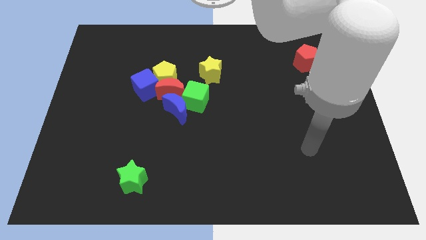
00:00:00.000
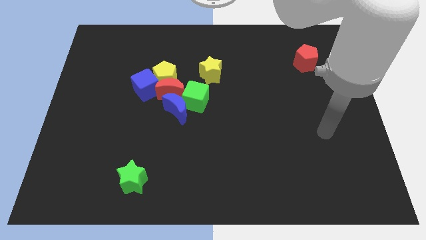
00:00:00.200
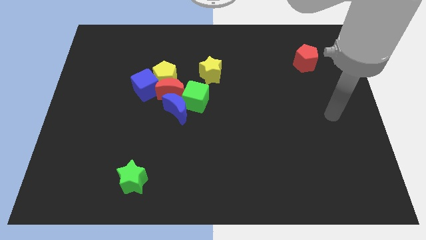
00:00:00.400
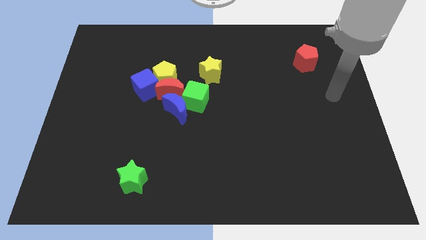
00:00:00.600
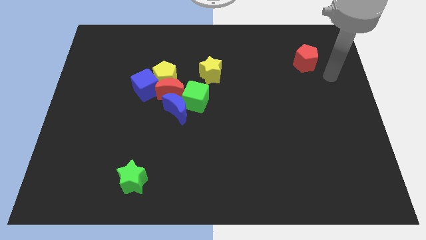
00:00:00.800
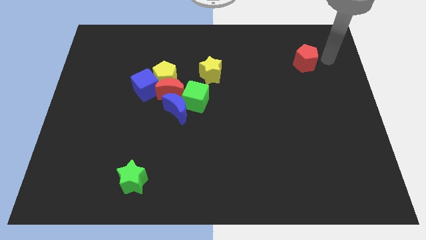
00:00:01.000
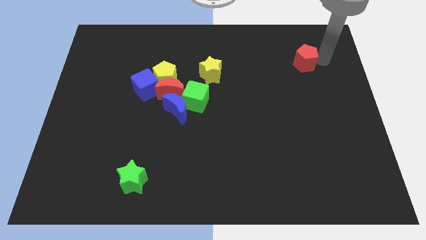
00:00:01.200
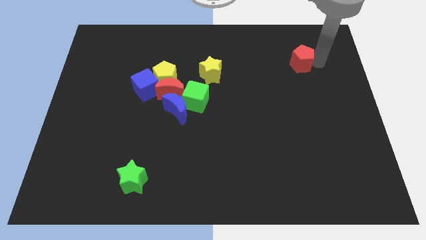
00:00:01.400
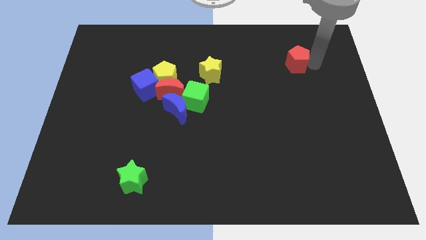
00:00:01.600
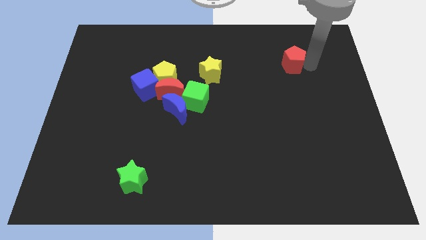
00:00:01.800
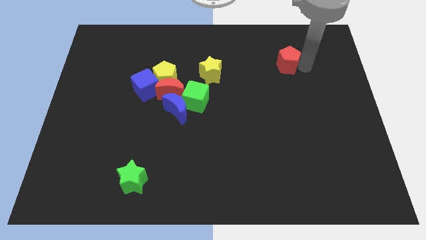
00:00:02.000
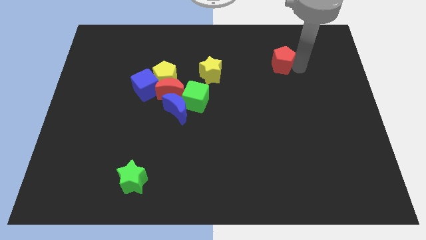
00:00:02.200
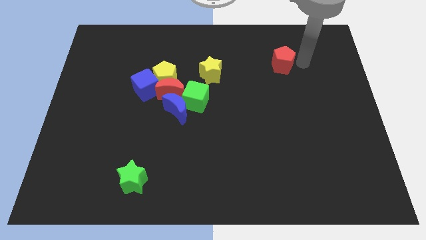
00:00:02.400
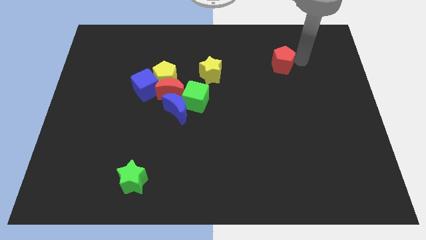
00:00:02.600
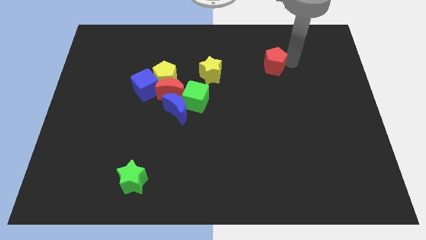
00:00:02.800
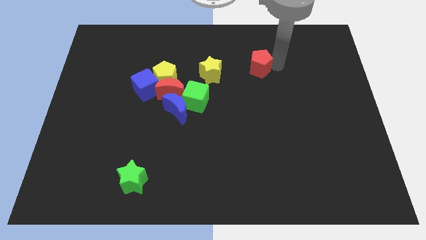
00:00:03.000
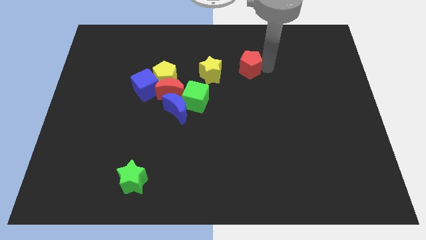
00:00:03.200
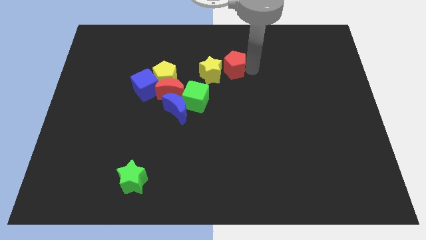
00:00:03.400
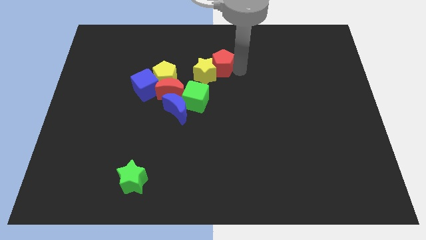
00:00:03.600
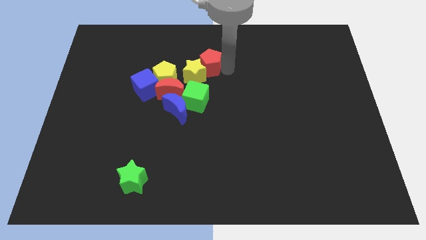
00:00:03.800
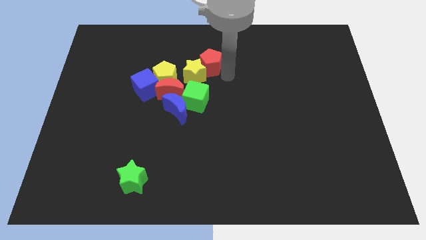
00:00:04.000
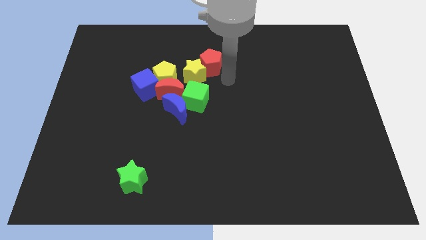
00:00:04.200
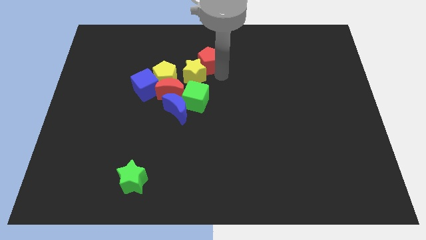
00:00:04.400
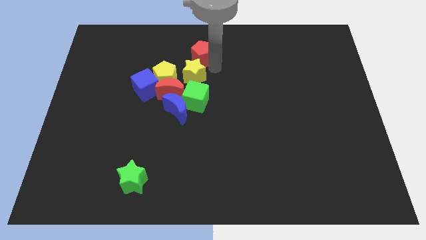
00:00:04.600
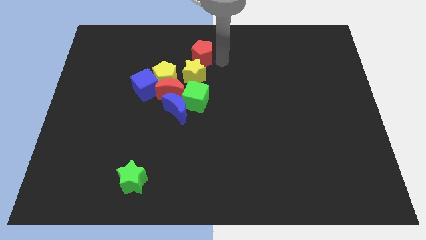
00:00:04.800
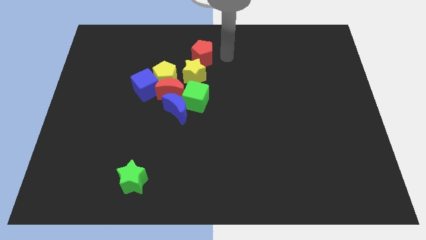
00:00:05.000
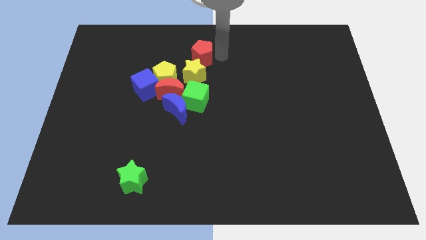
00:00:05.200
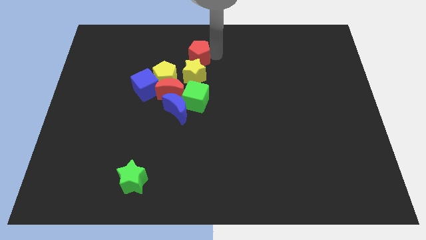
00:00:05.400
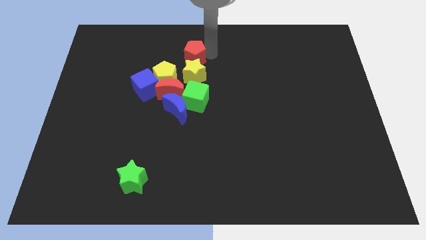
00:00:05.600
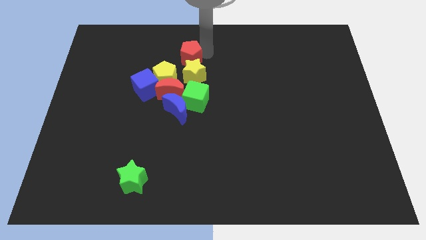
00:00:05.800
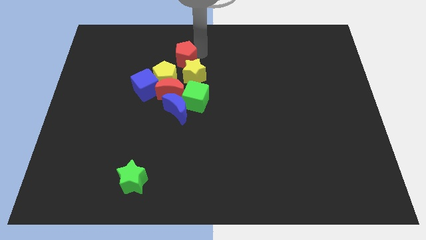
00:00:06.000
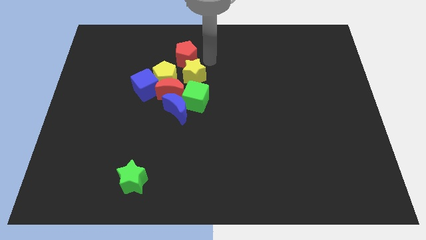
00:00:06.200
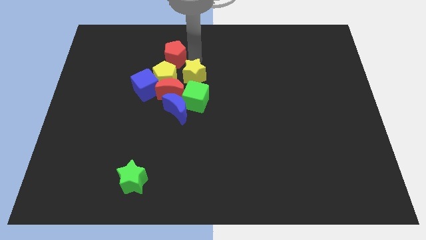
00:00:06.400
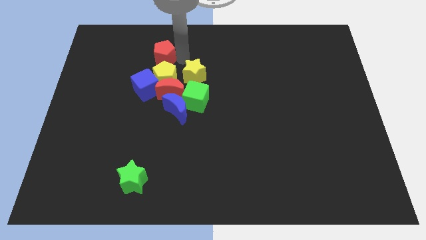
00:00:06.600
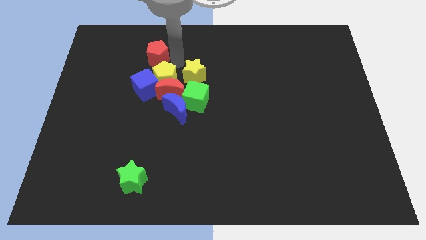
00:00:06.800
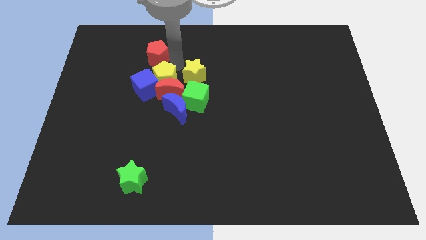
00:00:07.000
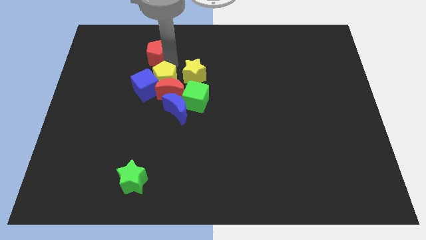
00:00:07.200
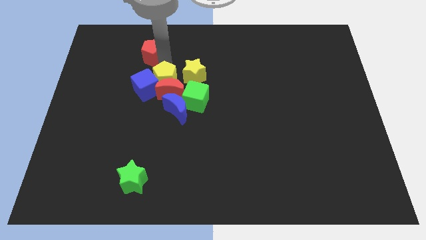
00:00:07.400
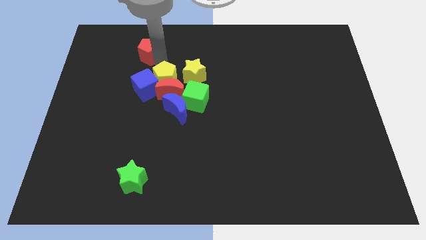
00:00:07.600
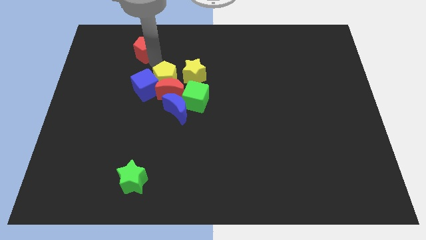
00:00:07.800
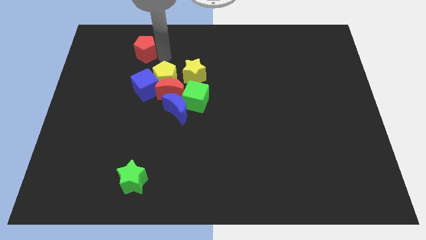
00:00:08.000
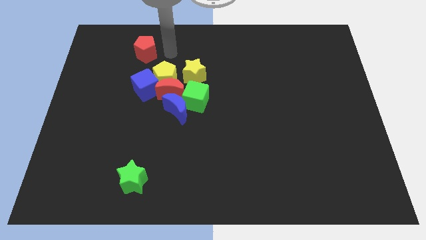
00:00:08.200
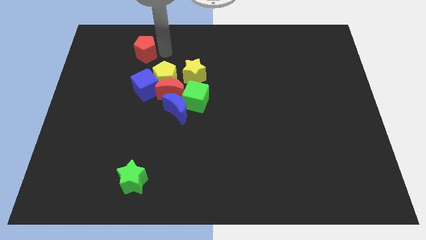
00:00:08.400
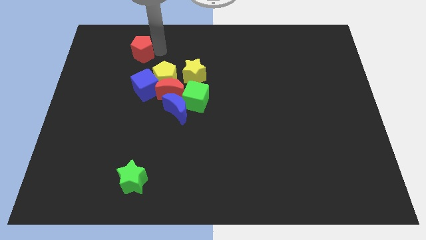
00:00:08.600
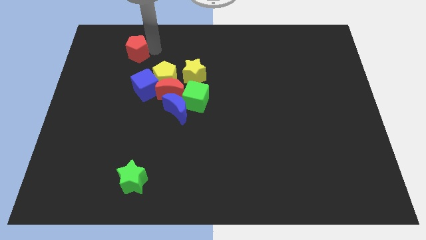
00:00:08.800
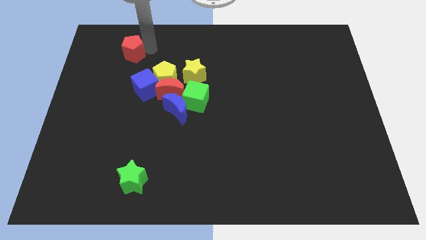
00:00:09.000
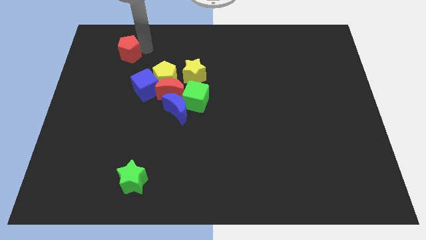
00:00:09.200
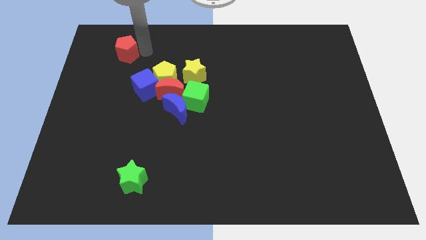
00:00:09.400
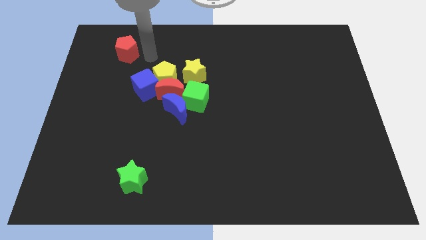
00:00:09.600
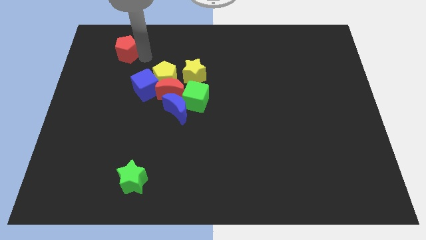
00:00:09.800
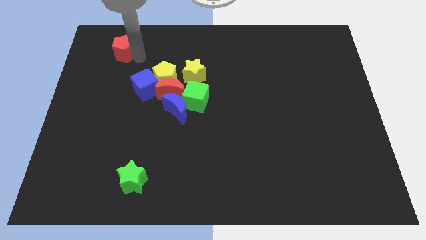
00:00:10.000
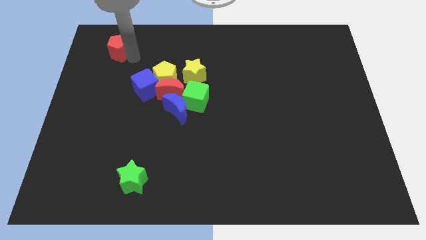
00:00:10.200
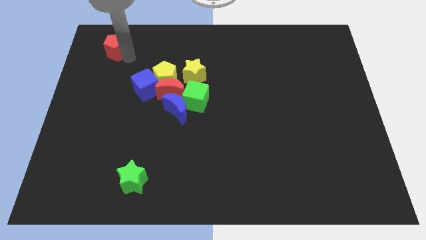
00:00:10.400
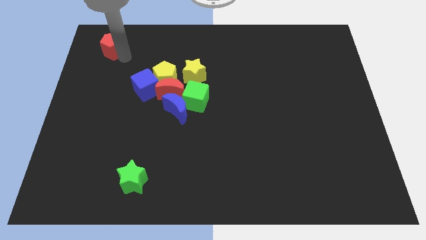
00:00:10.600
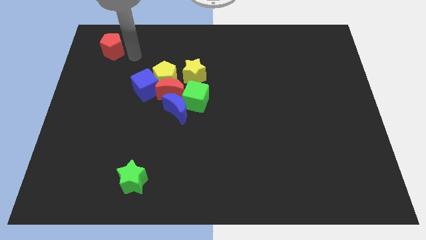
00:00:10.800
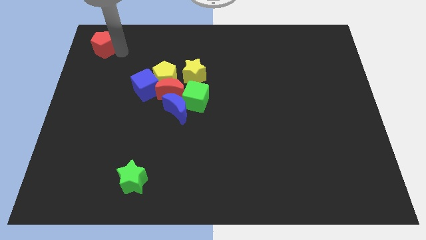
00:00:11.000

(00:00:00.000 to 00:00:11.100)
put the red pentagon to the top left
